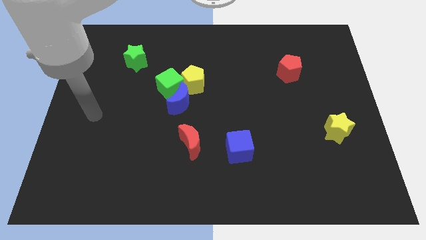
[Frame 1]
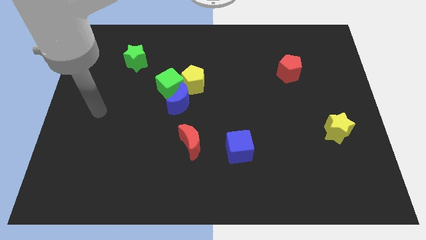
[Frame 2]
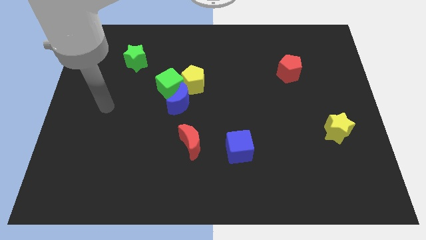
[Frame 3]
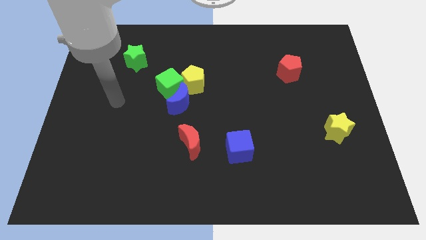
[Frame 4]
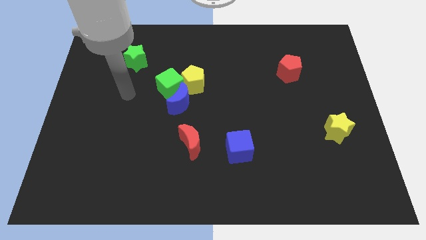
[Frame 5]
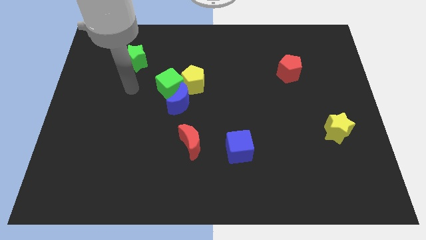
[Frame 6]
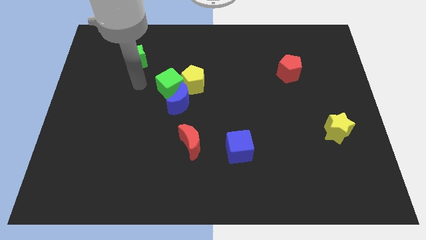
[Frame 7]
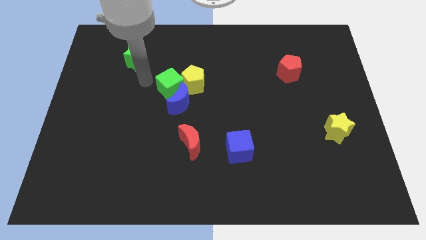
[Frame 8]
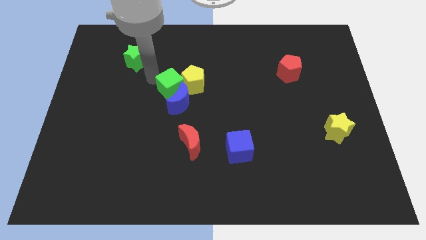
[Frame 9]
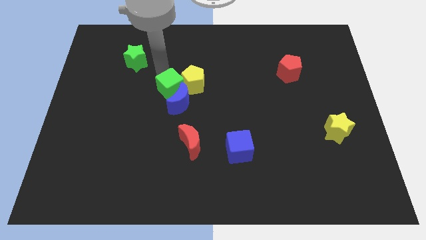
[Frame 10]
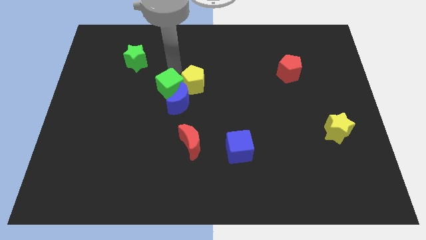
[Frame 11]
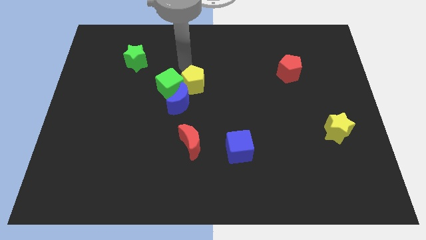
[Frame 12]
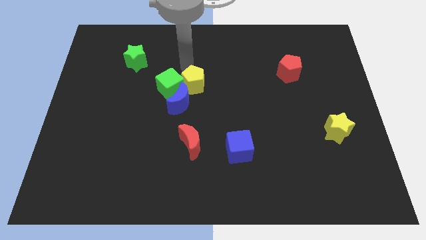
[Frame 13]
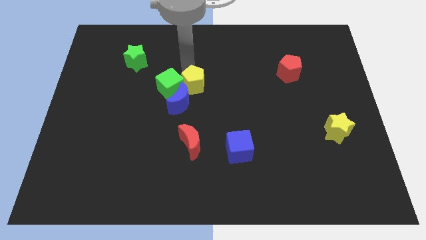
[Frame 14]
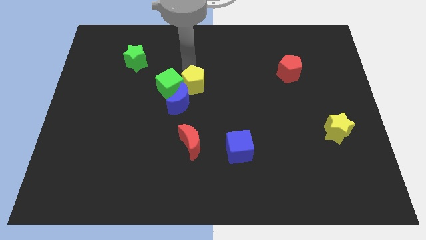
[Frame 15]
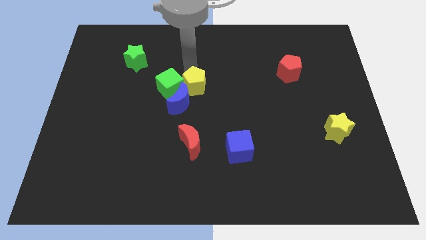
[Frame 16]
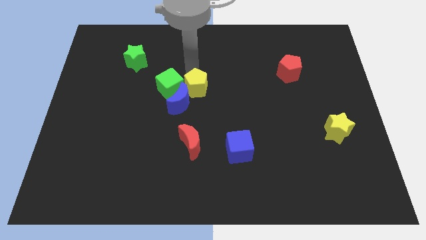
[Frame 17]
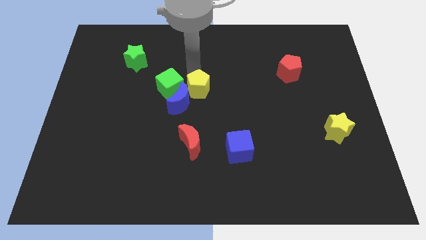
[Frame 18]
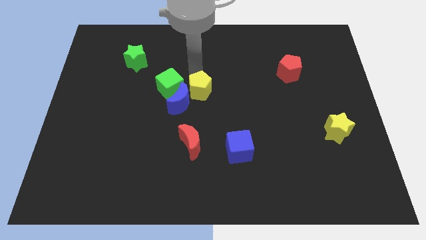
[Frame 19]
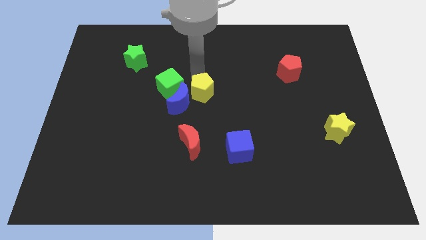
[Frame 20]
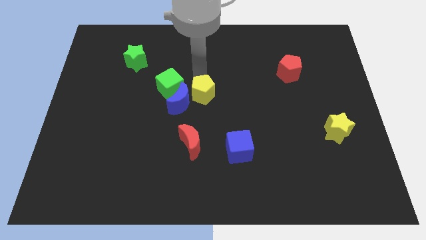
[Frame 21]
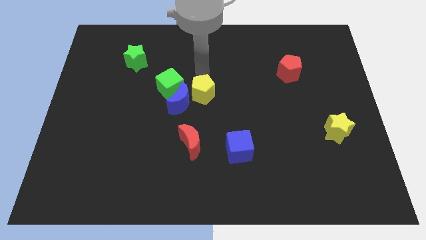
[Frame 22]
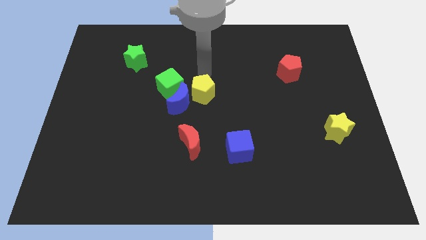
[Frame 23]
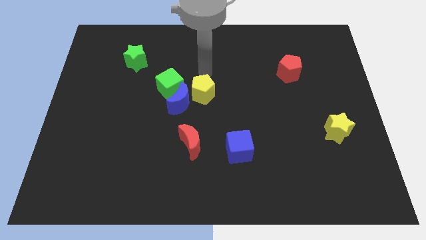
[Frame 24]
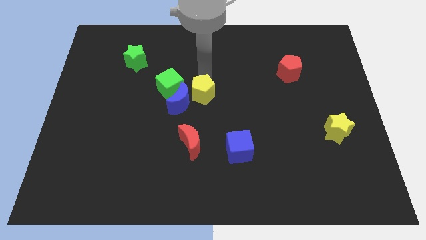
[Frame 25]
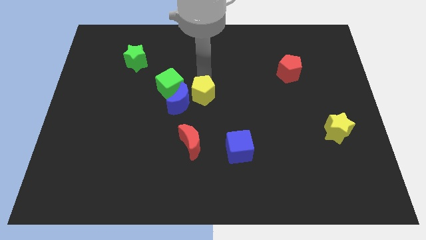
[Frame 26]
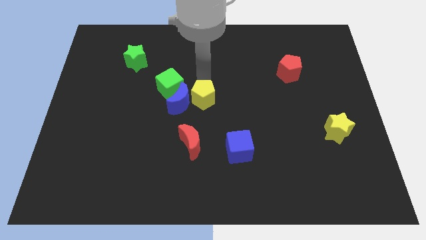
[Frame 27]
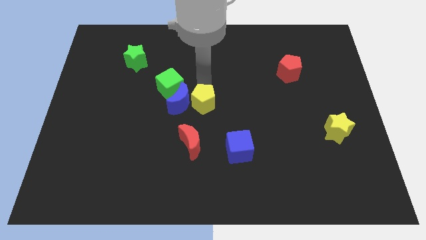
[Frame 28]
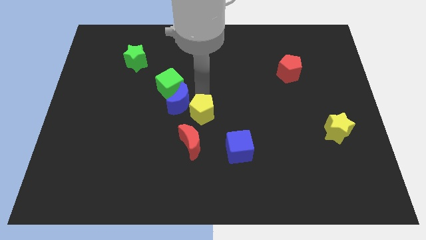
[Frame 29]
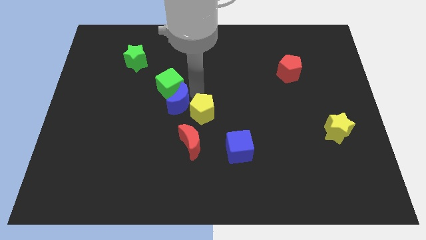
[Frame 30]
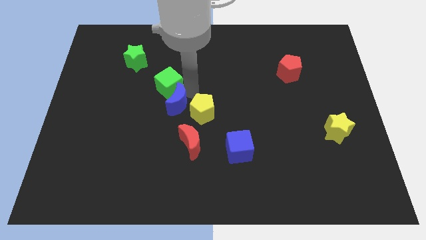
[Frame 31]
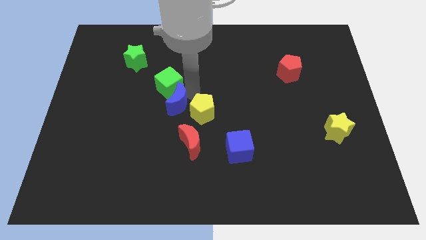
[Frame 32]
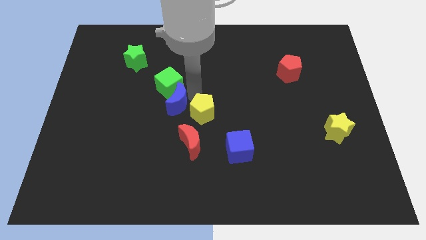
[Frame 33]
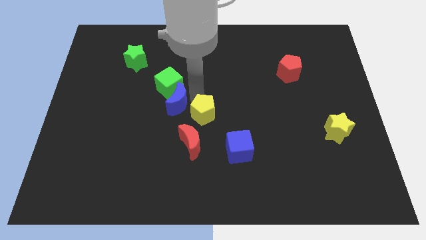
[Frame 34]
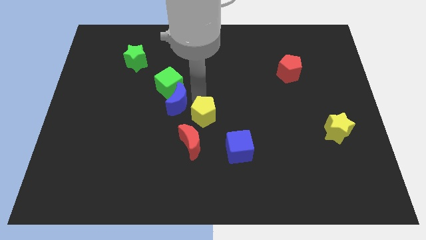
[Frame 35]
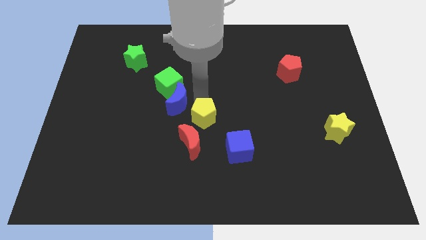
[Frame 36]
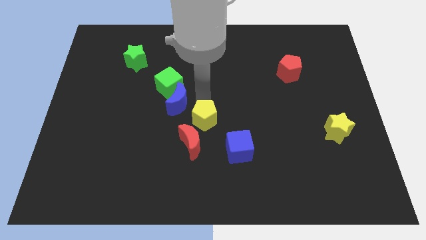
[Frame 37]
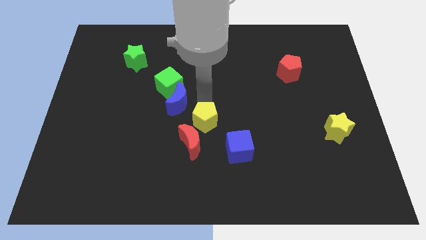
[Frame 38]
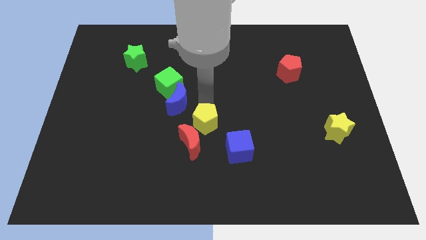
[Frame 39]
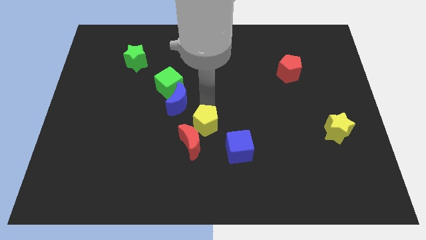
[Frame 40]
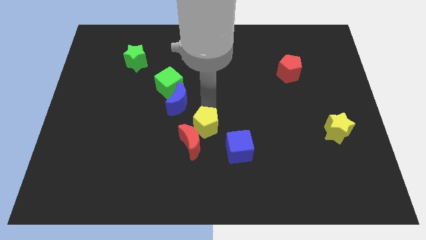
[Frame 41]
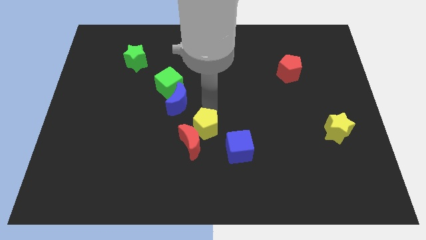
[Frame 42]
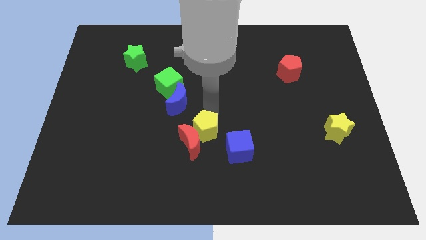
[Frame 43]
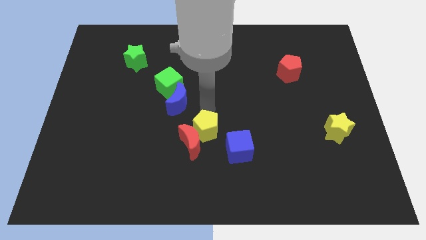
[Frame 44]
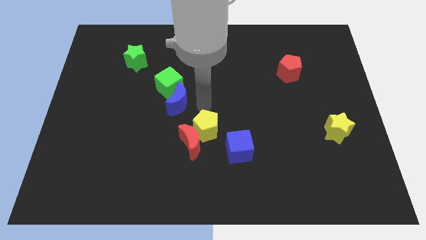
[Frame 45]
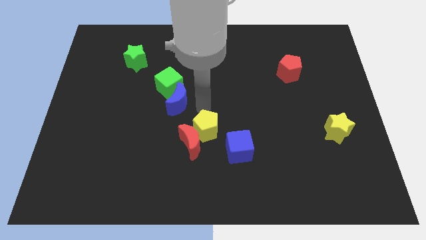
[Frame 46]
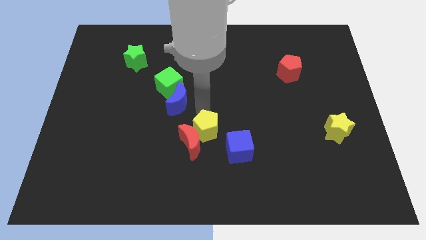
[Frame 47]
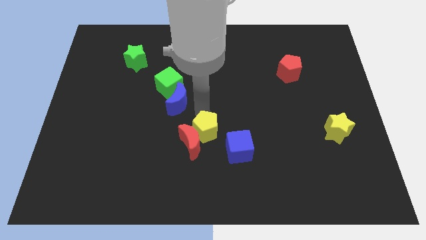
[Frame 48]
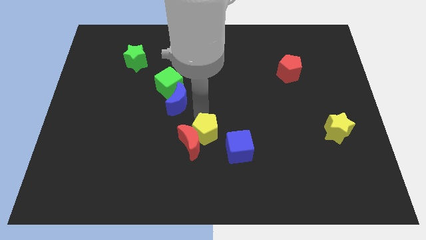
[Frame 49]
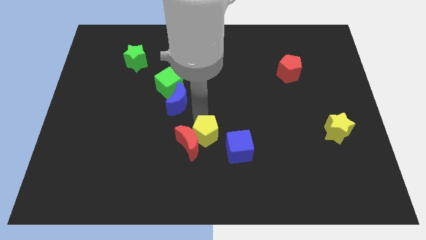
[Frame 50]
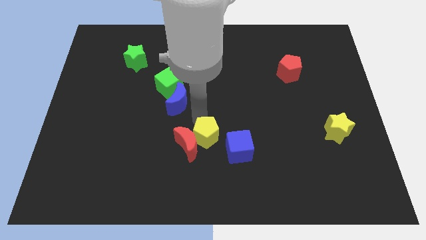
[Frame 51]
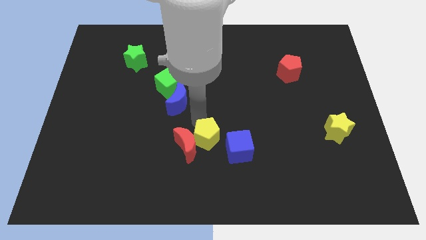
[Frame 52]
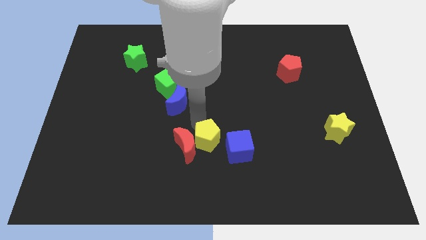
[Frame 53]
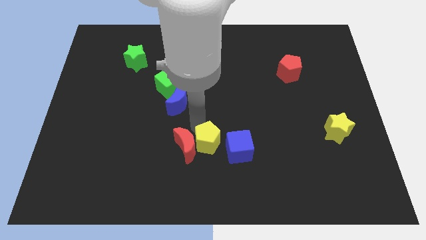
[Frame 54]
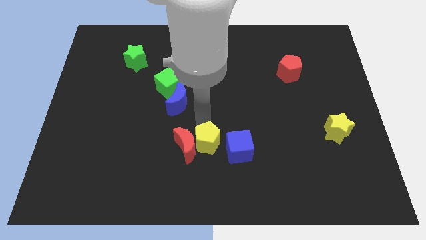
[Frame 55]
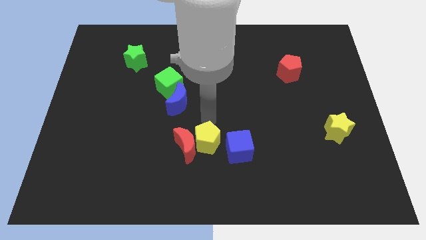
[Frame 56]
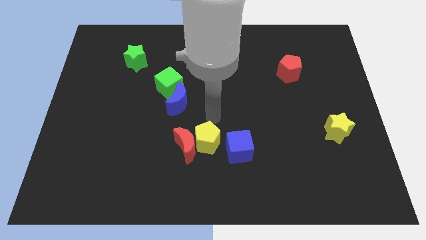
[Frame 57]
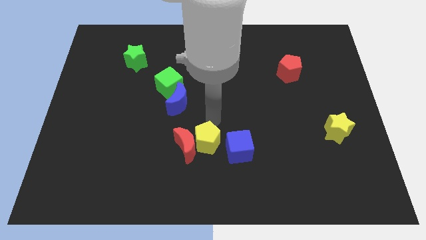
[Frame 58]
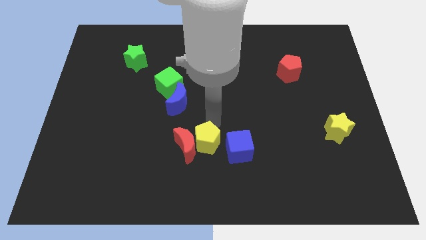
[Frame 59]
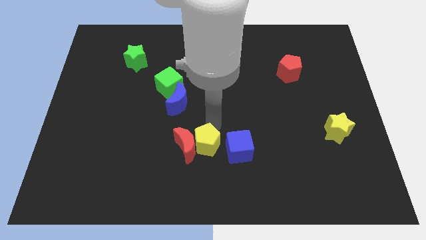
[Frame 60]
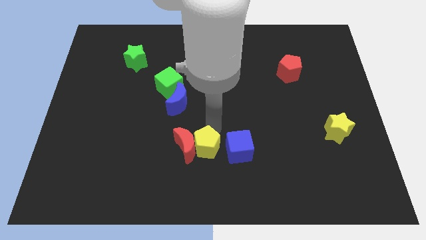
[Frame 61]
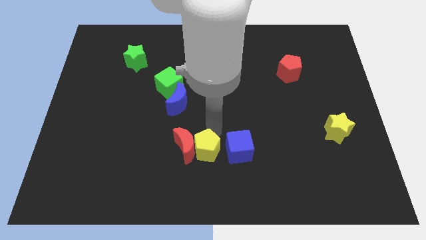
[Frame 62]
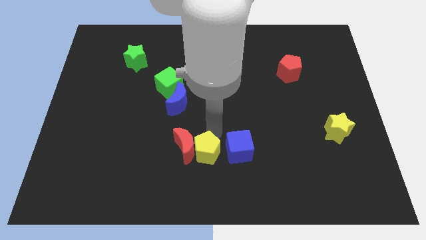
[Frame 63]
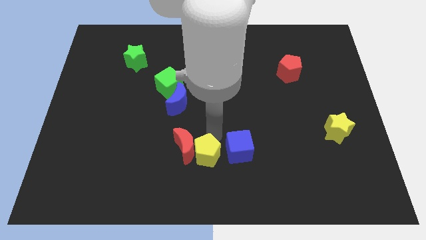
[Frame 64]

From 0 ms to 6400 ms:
move the yellow pentagon to the bottom side

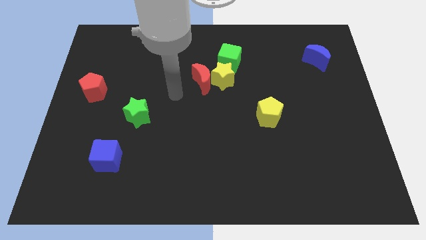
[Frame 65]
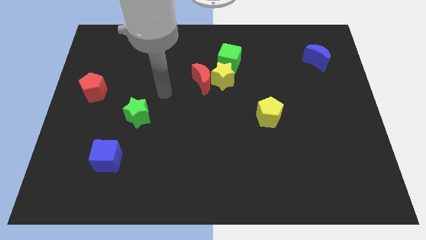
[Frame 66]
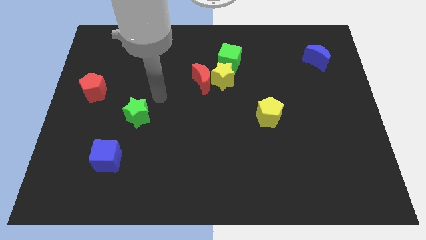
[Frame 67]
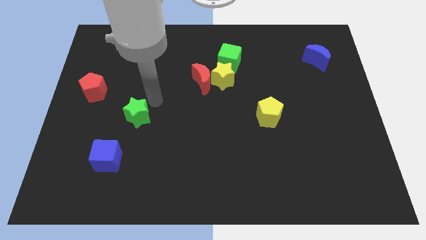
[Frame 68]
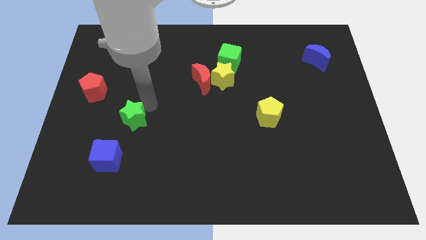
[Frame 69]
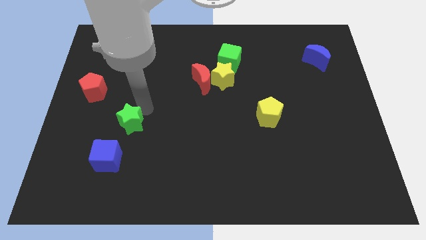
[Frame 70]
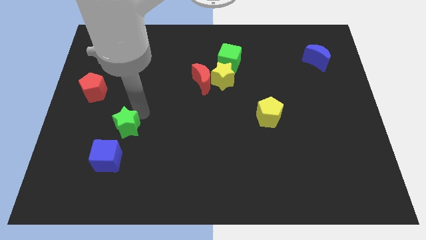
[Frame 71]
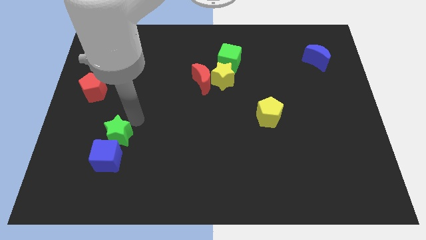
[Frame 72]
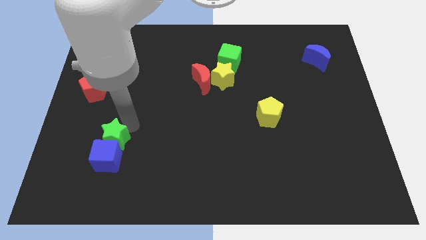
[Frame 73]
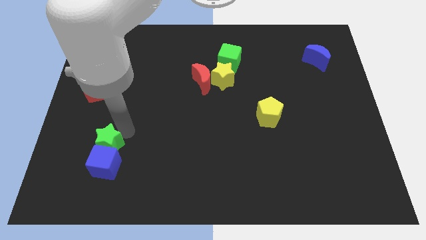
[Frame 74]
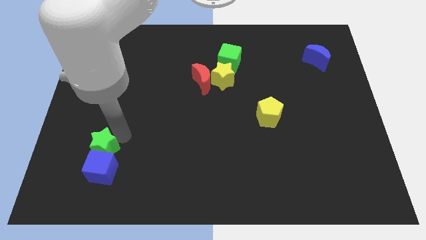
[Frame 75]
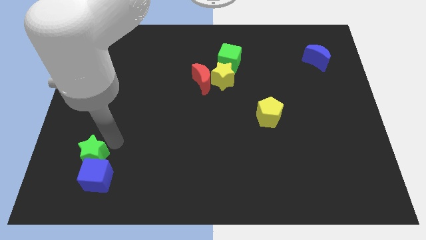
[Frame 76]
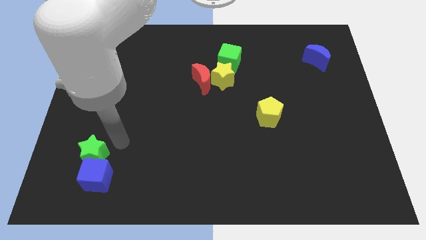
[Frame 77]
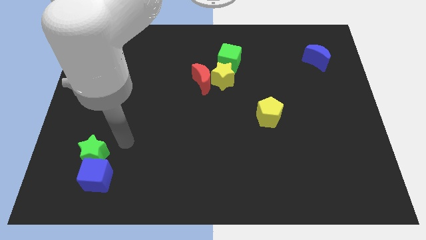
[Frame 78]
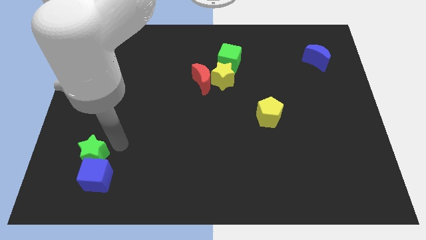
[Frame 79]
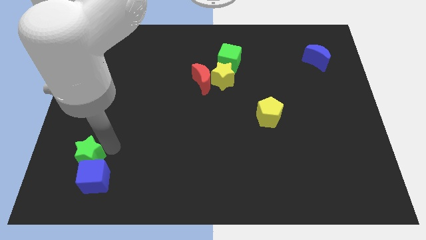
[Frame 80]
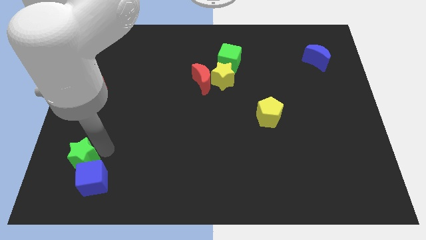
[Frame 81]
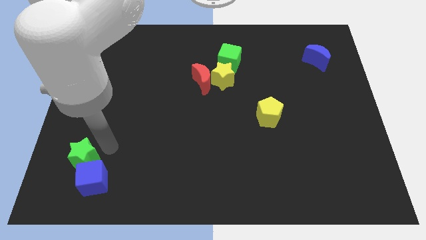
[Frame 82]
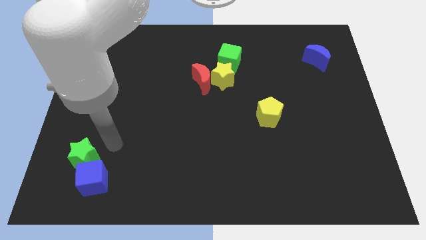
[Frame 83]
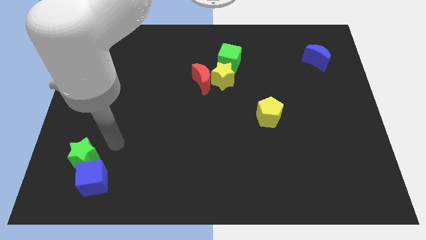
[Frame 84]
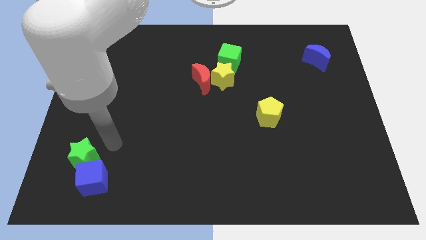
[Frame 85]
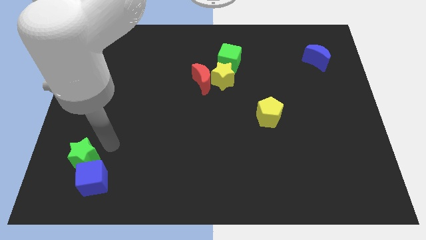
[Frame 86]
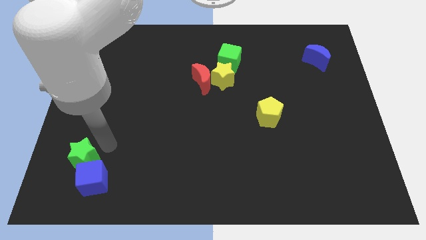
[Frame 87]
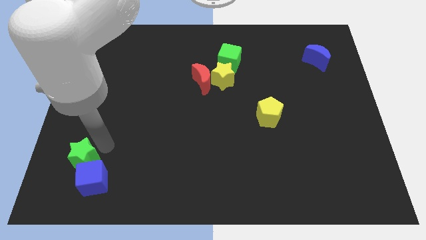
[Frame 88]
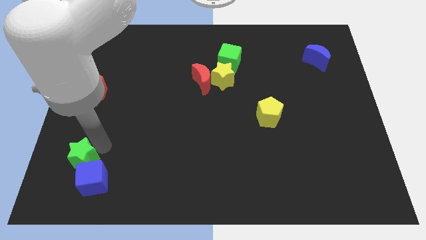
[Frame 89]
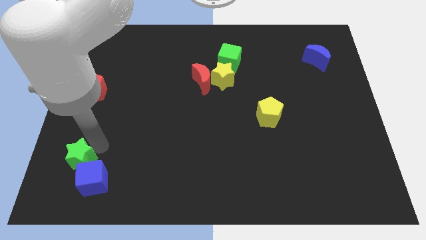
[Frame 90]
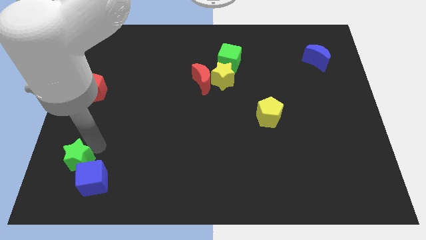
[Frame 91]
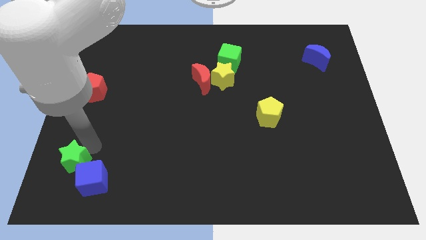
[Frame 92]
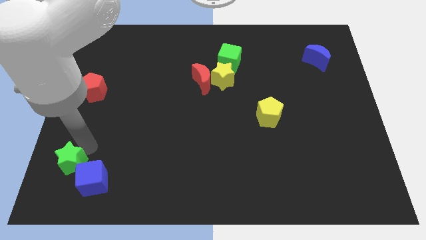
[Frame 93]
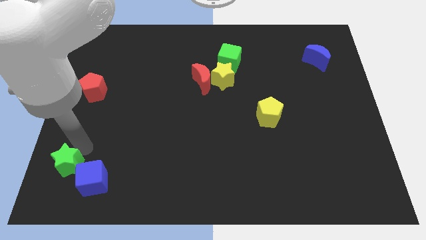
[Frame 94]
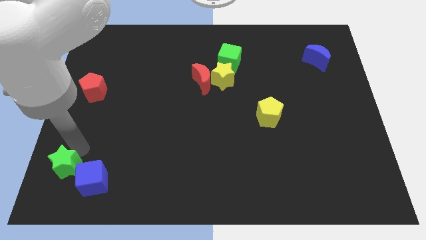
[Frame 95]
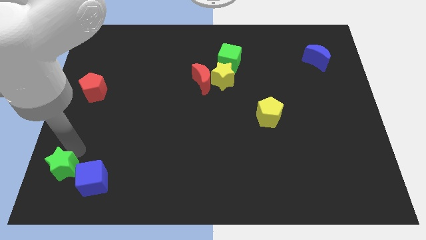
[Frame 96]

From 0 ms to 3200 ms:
slide the green star to the bottom left corner
